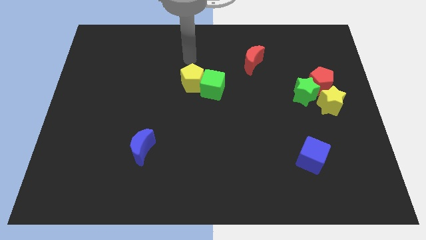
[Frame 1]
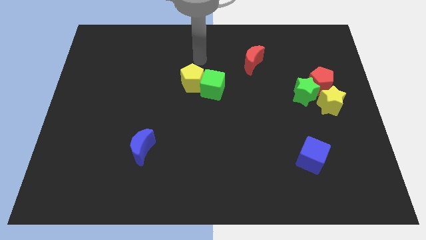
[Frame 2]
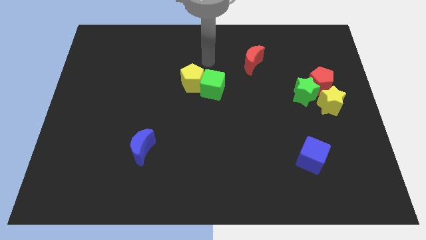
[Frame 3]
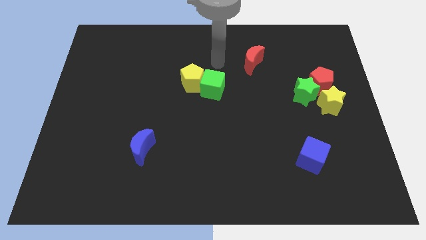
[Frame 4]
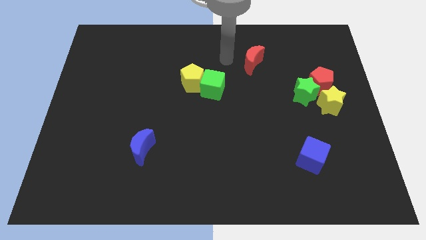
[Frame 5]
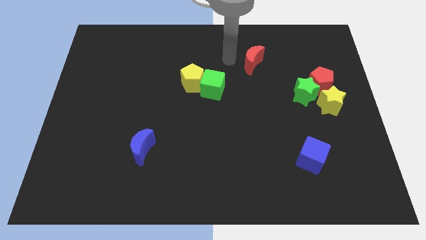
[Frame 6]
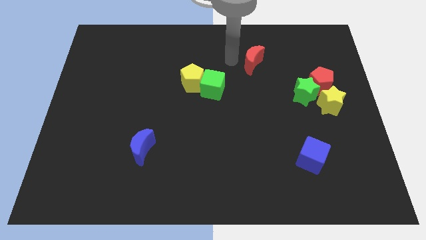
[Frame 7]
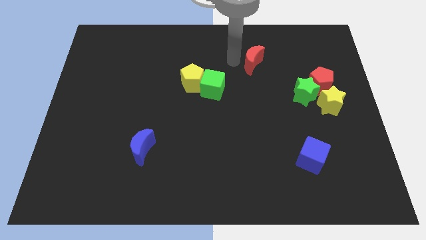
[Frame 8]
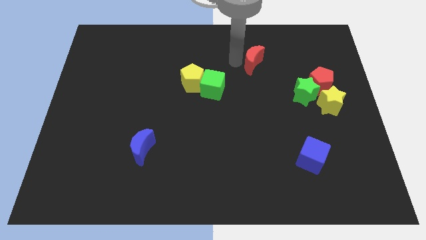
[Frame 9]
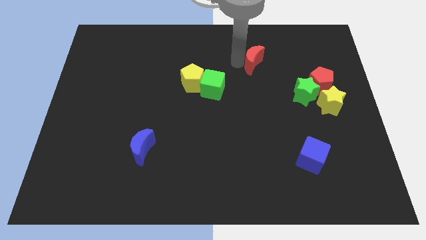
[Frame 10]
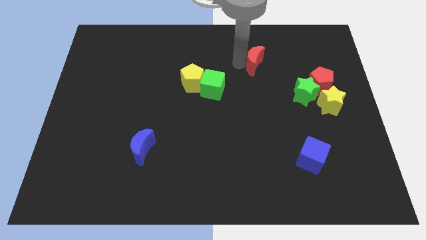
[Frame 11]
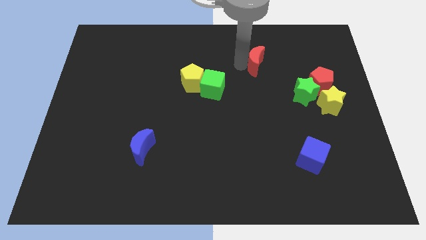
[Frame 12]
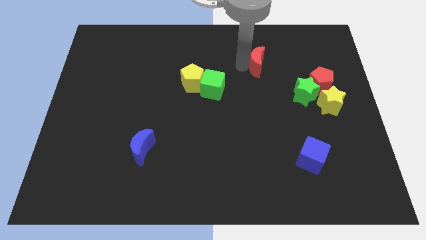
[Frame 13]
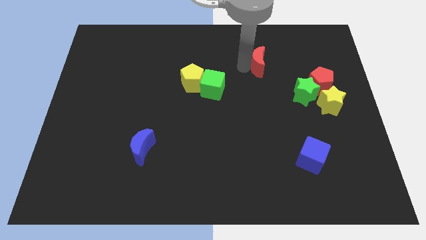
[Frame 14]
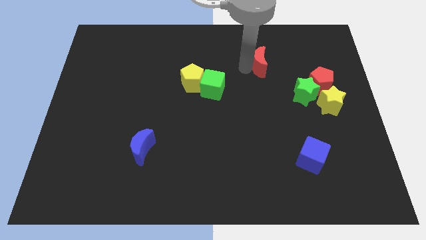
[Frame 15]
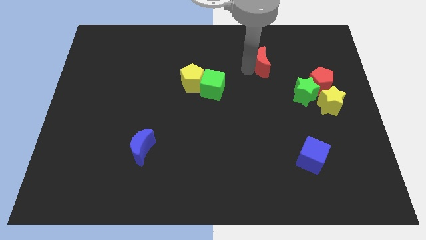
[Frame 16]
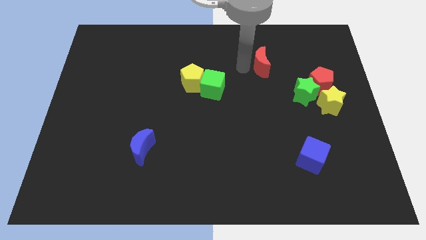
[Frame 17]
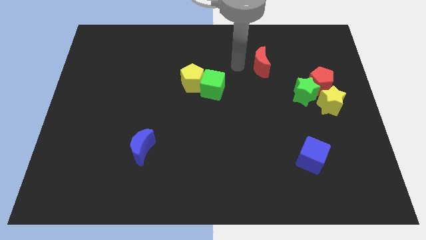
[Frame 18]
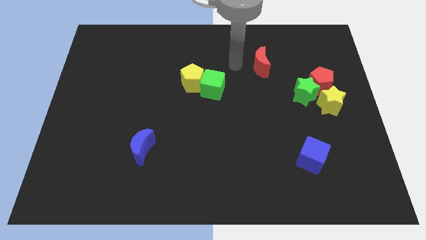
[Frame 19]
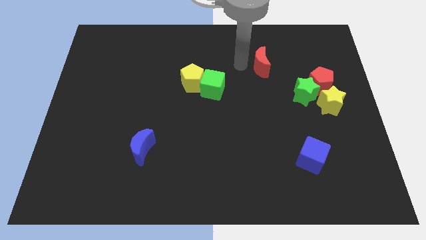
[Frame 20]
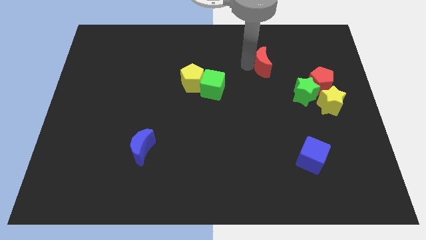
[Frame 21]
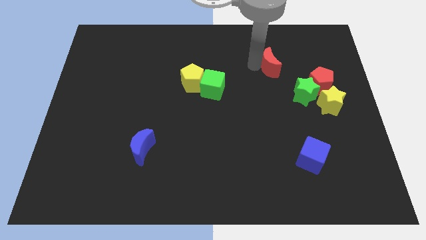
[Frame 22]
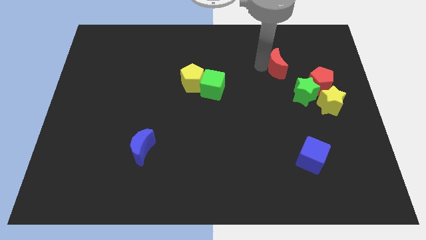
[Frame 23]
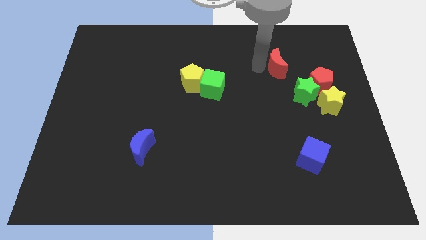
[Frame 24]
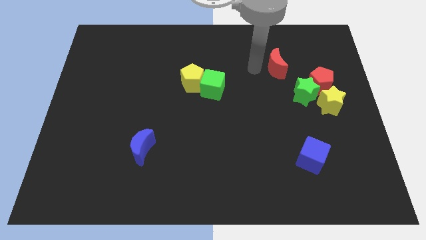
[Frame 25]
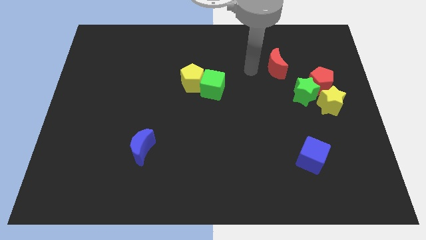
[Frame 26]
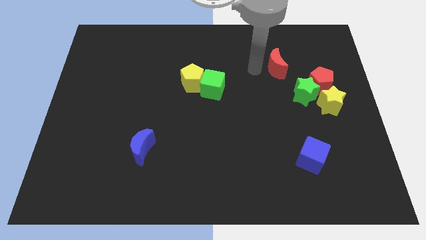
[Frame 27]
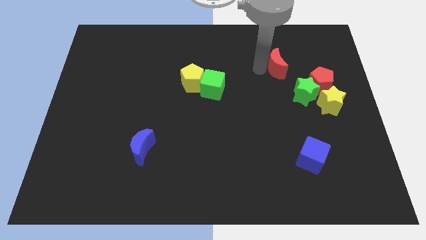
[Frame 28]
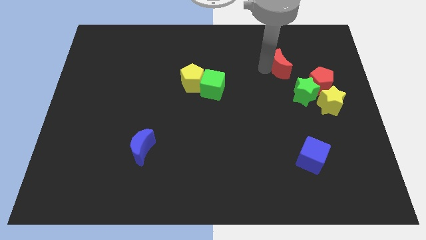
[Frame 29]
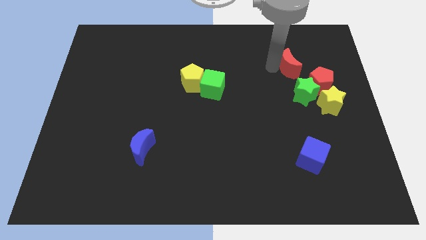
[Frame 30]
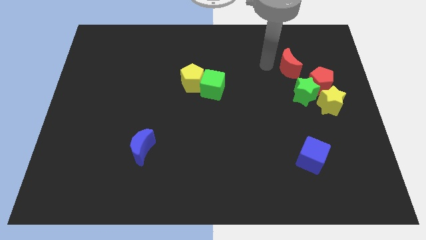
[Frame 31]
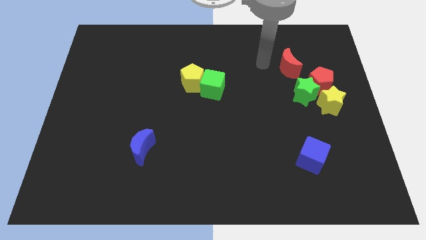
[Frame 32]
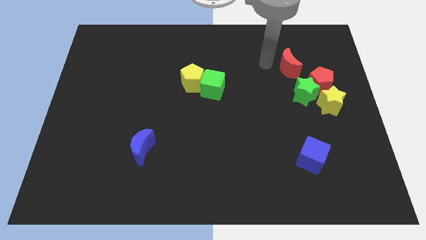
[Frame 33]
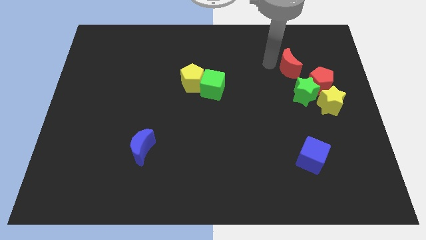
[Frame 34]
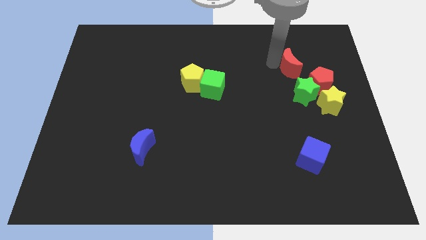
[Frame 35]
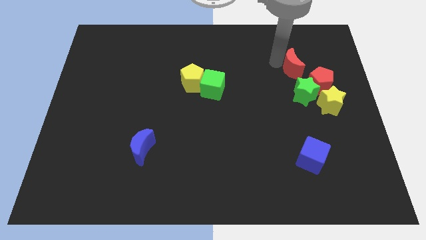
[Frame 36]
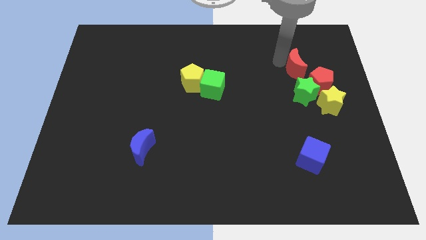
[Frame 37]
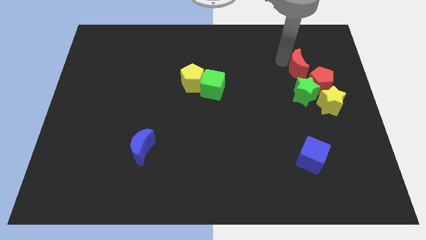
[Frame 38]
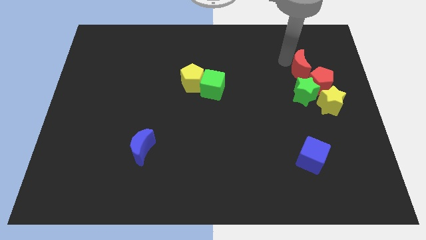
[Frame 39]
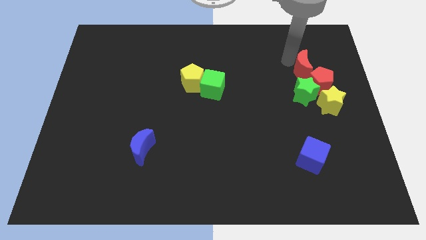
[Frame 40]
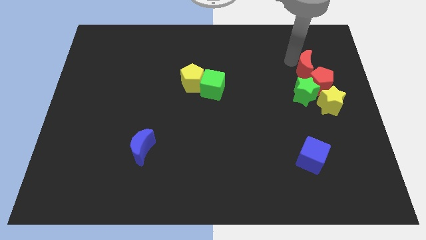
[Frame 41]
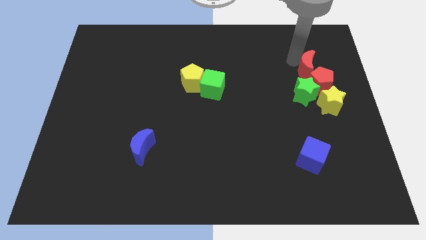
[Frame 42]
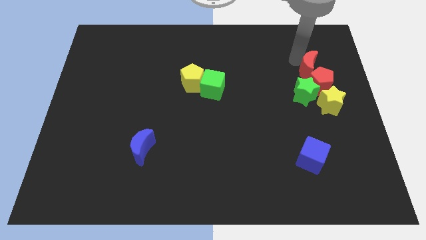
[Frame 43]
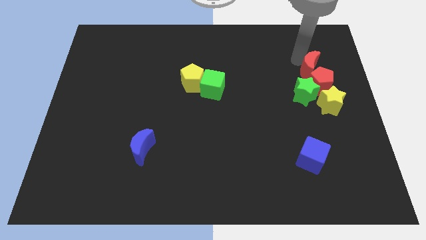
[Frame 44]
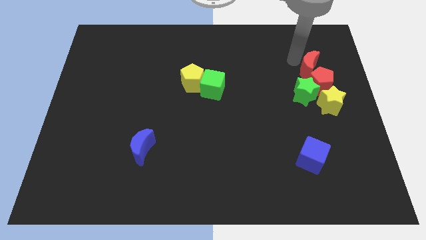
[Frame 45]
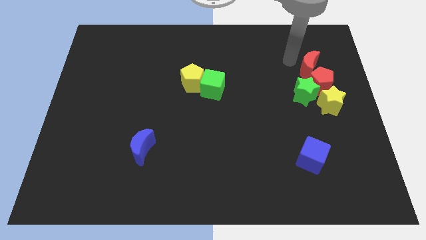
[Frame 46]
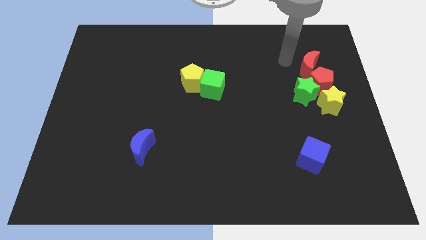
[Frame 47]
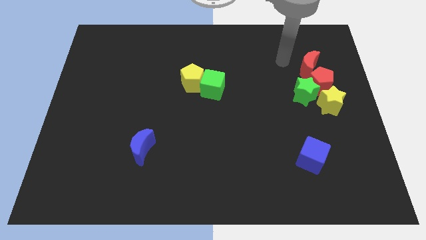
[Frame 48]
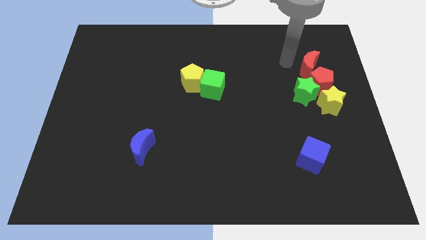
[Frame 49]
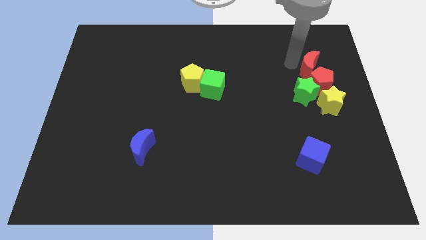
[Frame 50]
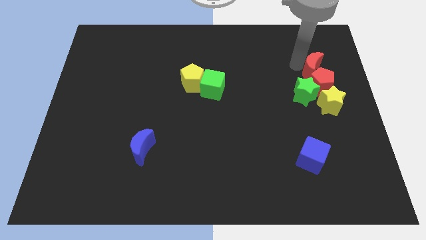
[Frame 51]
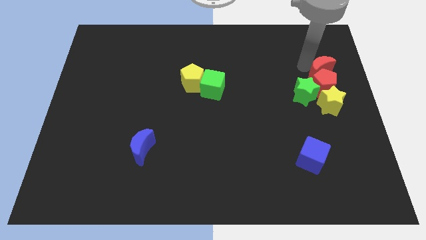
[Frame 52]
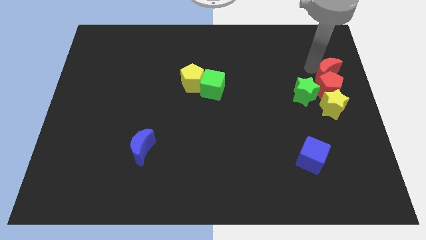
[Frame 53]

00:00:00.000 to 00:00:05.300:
slide the red moon to the right side of the board

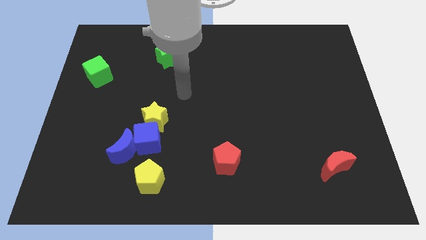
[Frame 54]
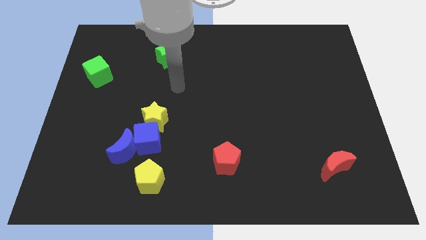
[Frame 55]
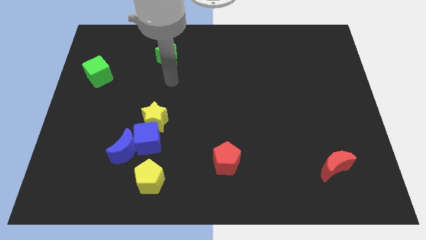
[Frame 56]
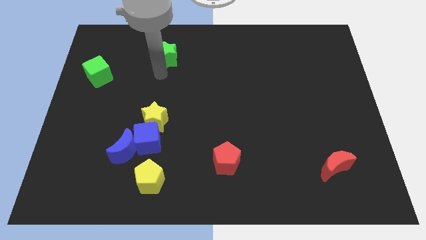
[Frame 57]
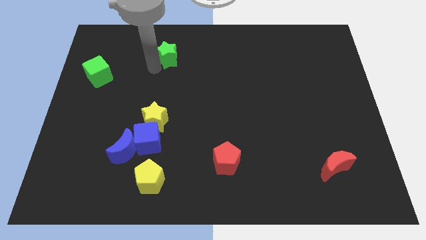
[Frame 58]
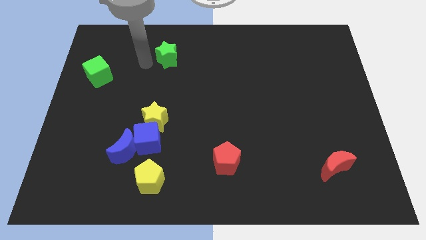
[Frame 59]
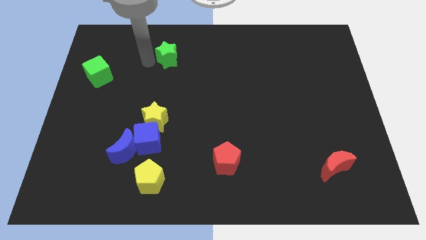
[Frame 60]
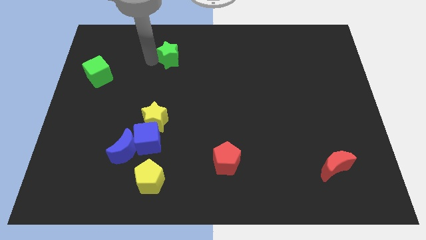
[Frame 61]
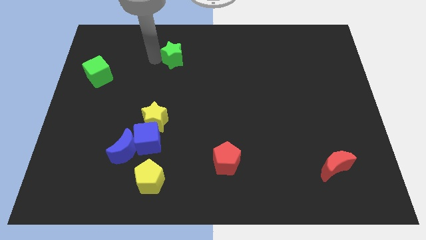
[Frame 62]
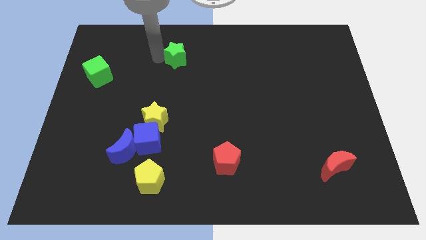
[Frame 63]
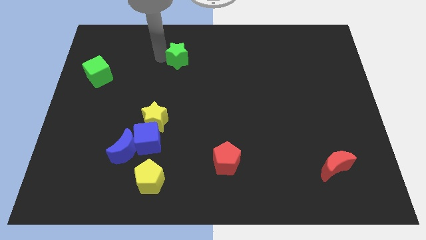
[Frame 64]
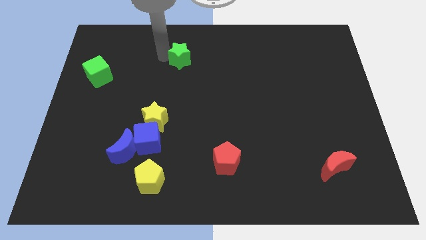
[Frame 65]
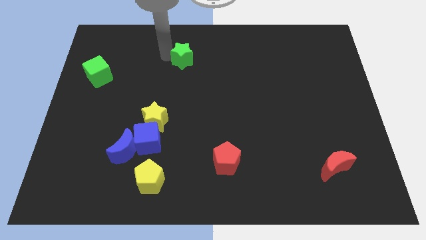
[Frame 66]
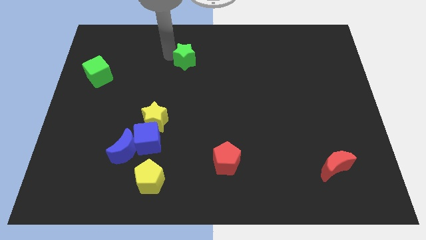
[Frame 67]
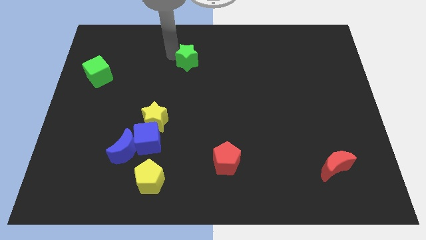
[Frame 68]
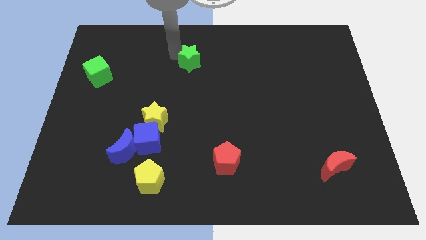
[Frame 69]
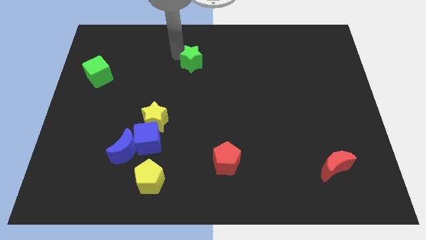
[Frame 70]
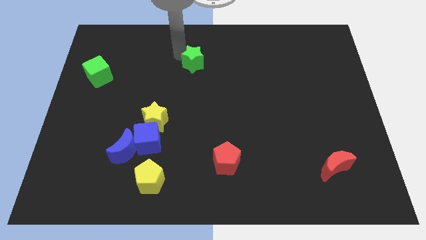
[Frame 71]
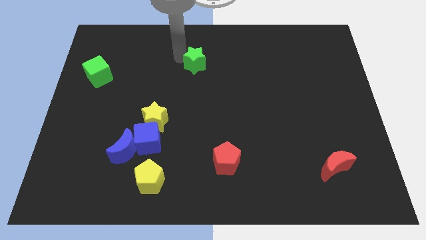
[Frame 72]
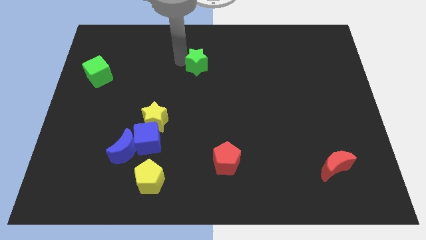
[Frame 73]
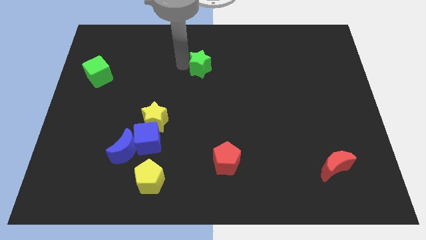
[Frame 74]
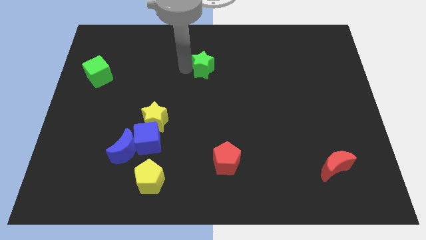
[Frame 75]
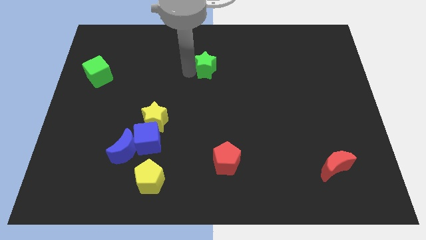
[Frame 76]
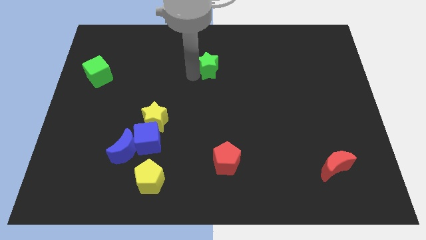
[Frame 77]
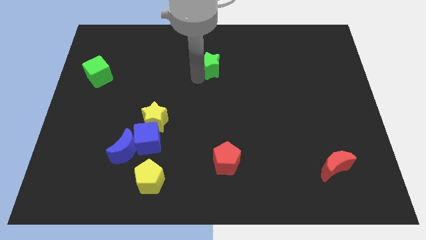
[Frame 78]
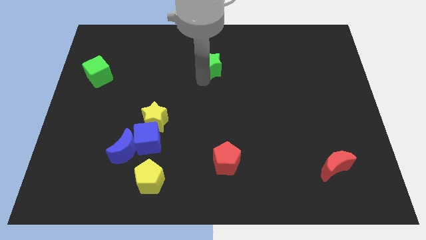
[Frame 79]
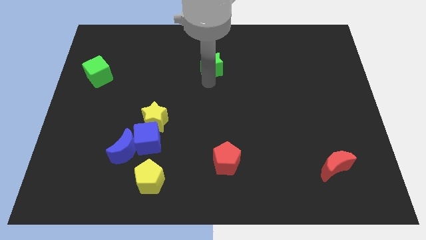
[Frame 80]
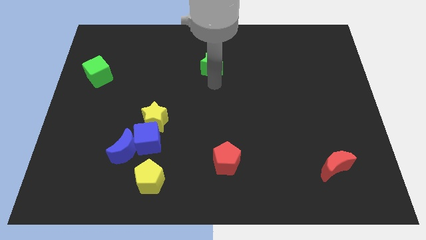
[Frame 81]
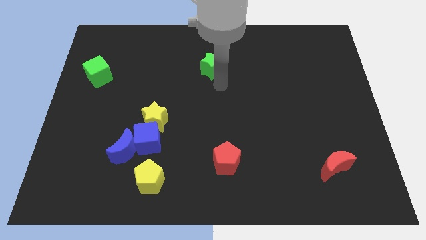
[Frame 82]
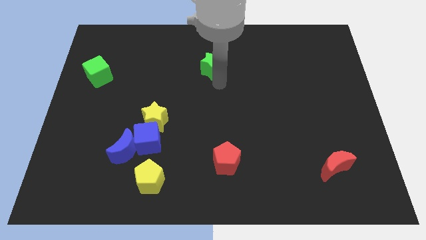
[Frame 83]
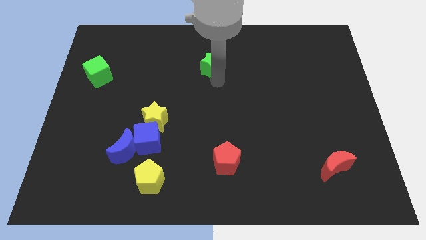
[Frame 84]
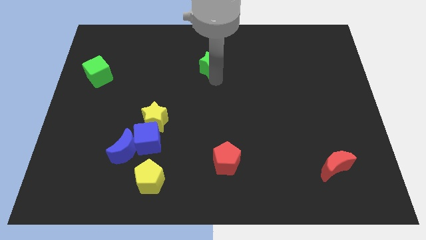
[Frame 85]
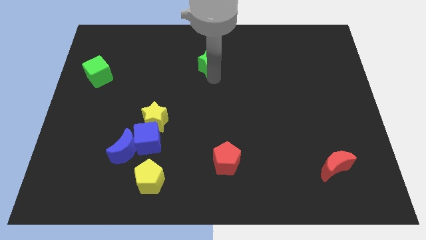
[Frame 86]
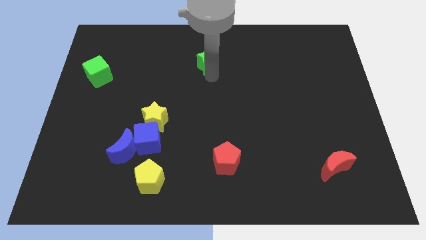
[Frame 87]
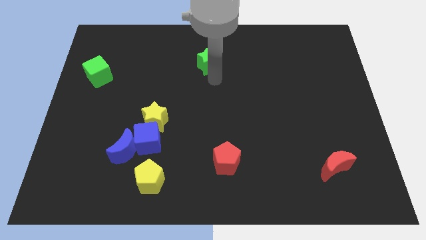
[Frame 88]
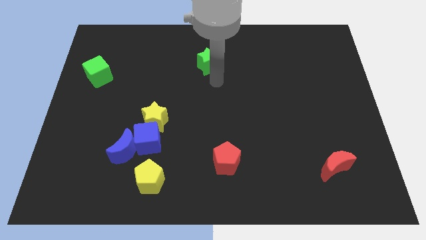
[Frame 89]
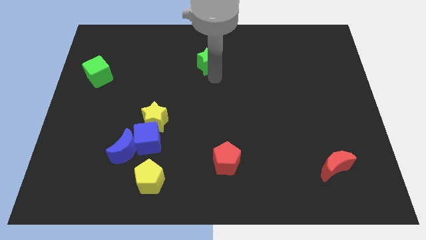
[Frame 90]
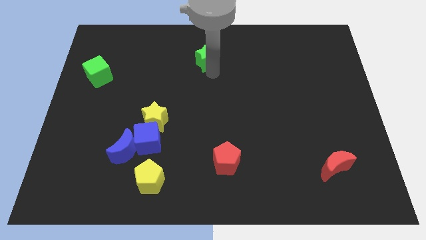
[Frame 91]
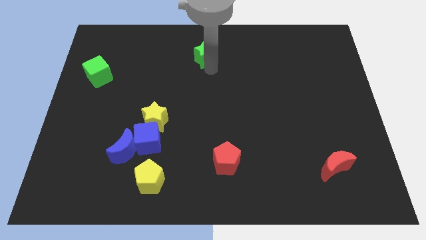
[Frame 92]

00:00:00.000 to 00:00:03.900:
put the green star to the top side
